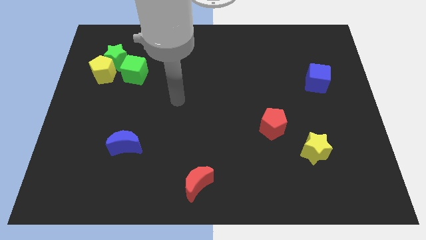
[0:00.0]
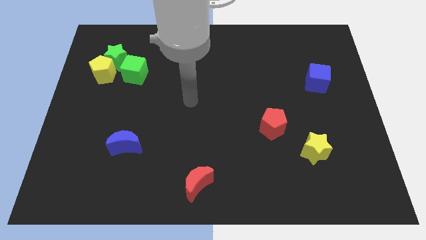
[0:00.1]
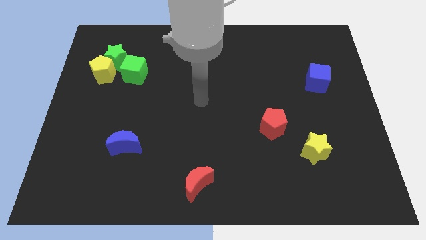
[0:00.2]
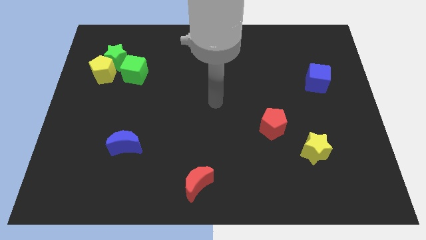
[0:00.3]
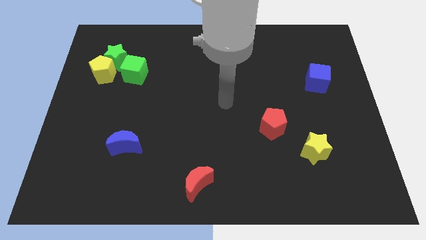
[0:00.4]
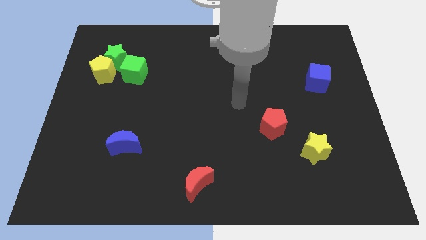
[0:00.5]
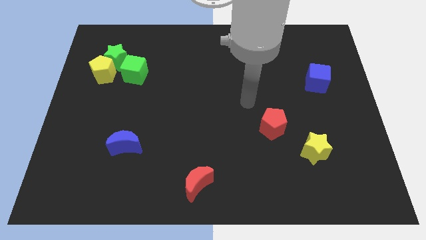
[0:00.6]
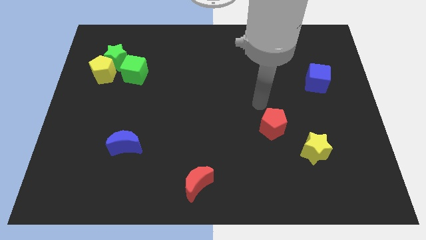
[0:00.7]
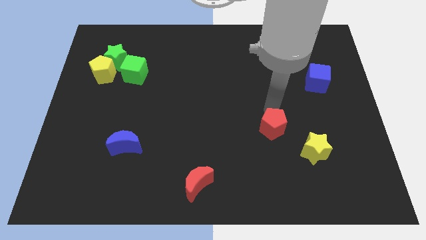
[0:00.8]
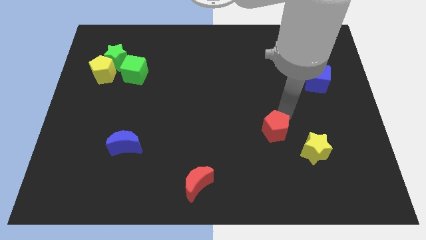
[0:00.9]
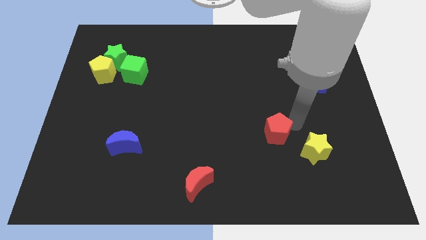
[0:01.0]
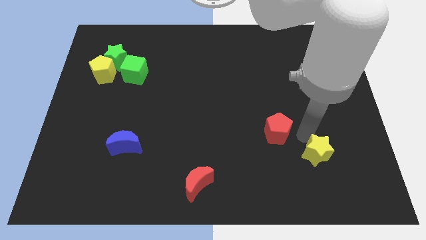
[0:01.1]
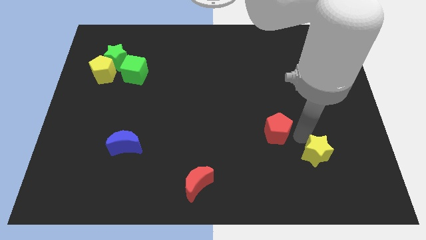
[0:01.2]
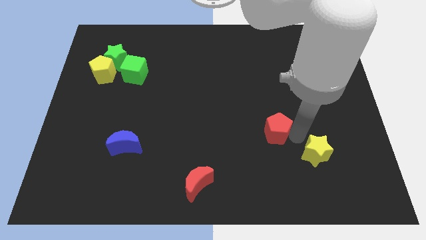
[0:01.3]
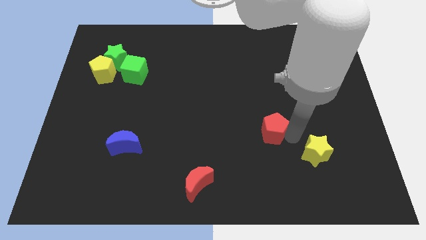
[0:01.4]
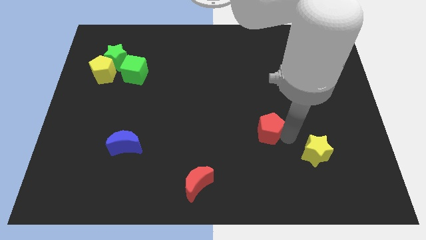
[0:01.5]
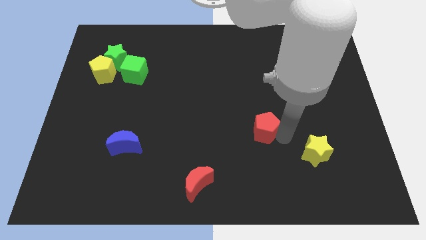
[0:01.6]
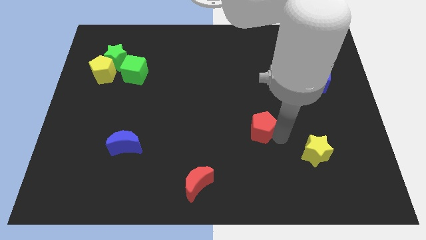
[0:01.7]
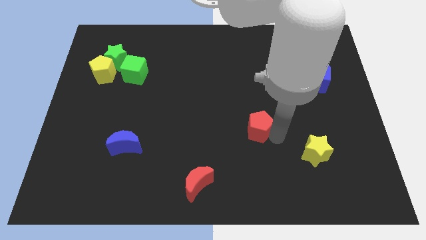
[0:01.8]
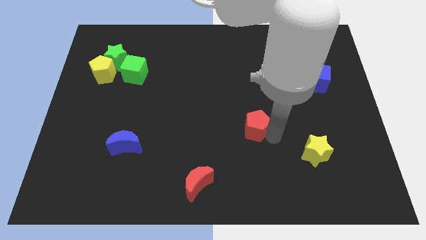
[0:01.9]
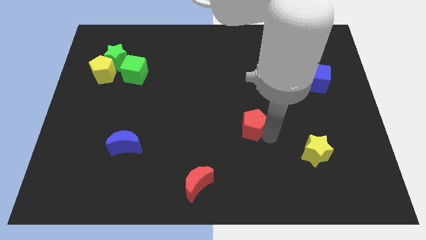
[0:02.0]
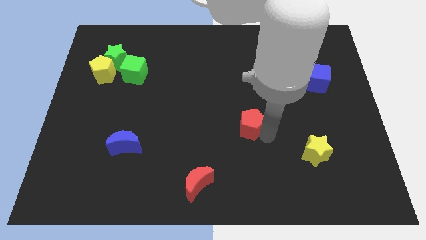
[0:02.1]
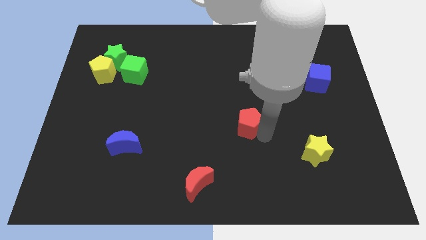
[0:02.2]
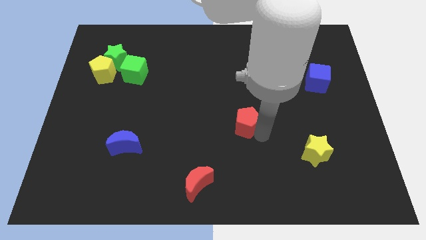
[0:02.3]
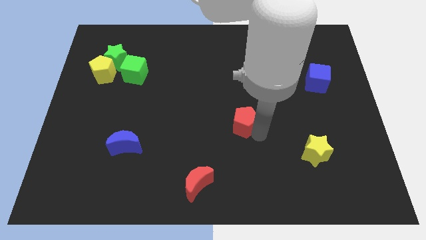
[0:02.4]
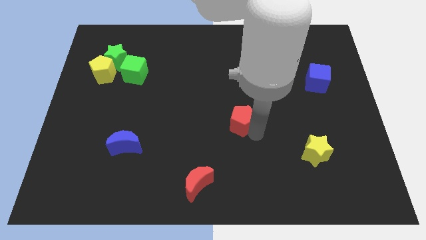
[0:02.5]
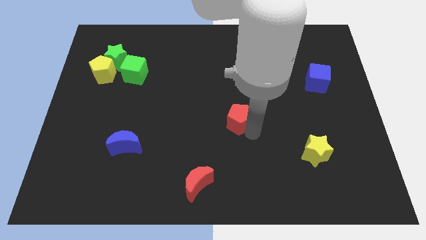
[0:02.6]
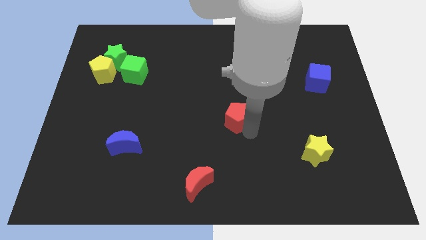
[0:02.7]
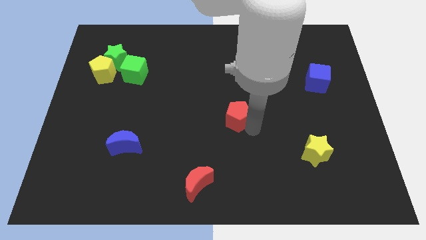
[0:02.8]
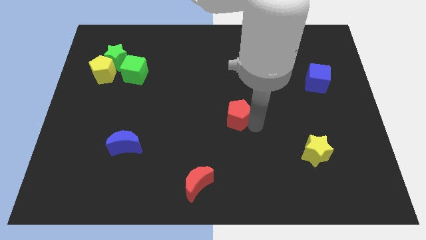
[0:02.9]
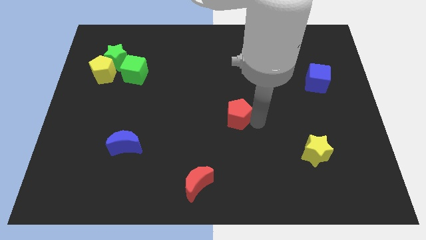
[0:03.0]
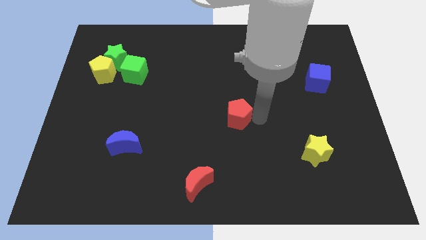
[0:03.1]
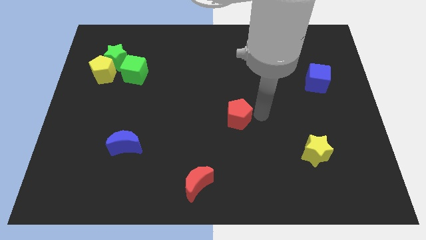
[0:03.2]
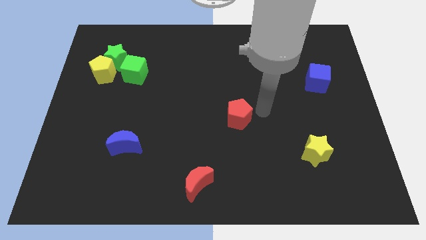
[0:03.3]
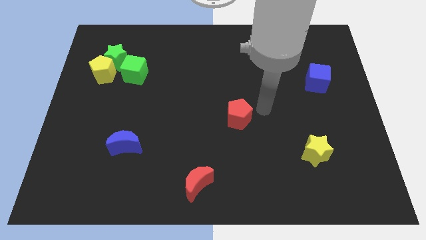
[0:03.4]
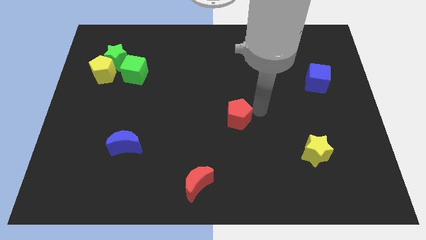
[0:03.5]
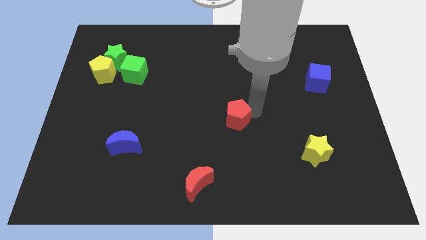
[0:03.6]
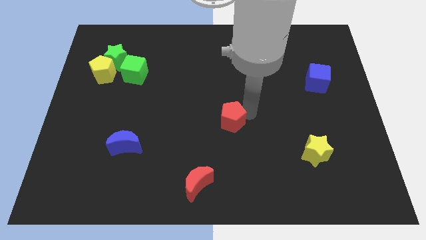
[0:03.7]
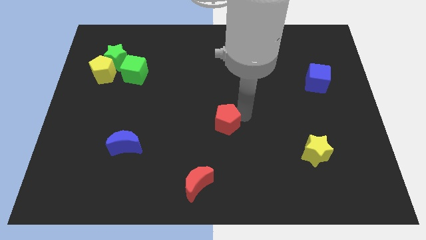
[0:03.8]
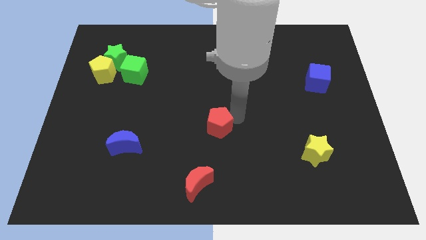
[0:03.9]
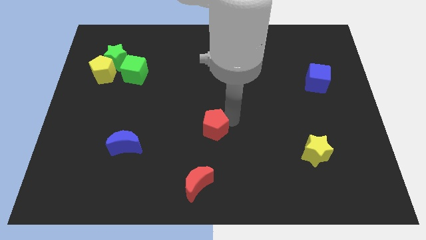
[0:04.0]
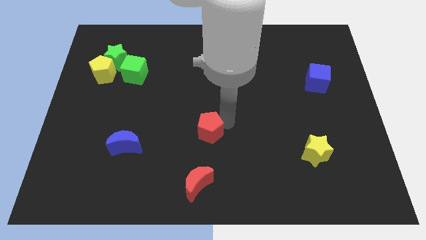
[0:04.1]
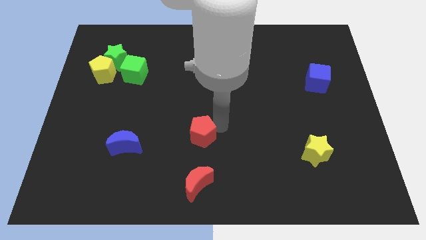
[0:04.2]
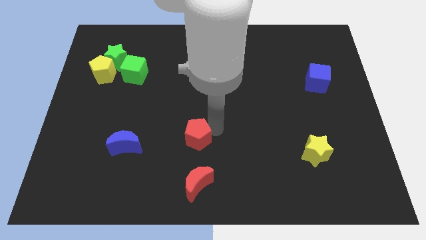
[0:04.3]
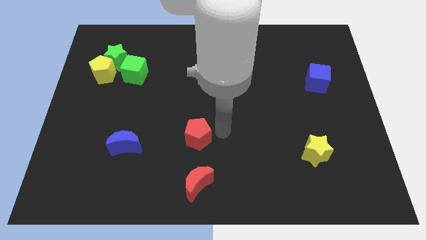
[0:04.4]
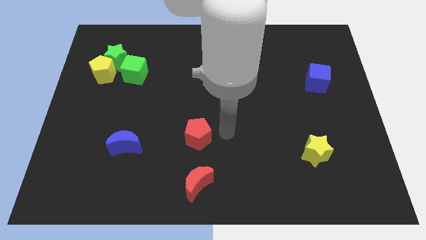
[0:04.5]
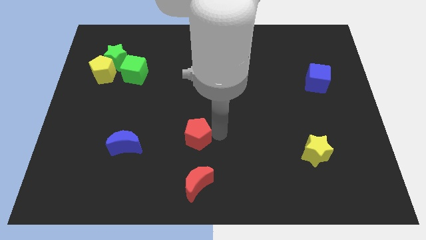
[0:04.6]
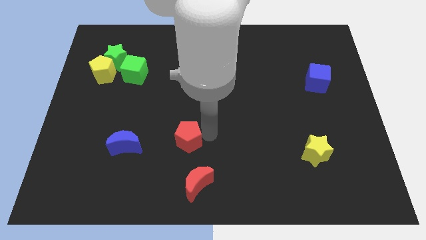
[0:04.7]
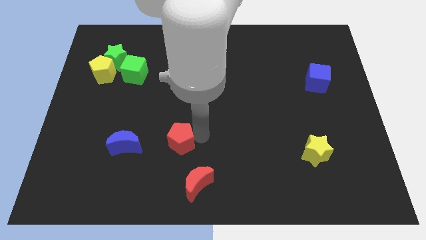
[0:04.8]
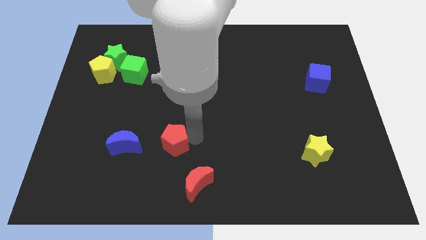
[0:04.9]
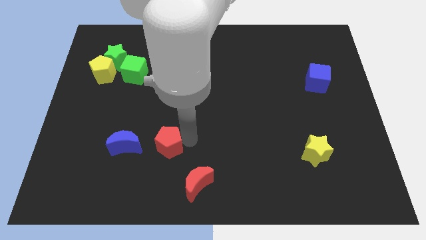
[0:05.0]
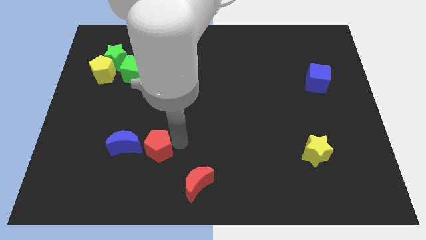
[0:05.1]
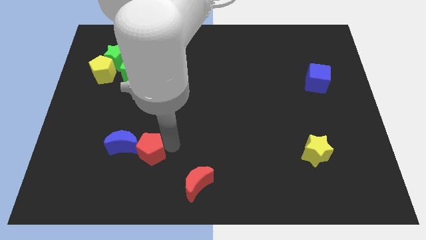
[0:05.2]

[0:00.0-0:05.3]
slide the red pentagon to the blue moon

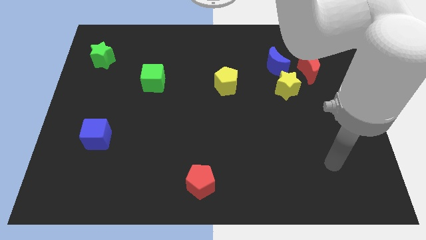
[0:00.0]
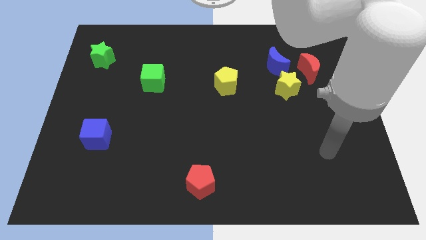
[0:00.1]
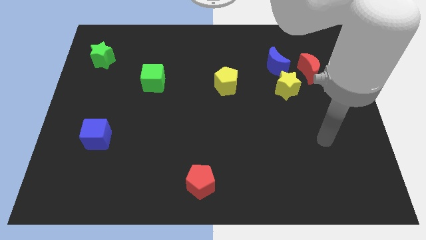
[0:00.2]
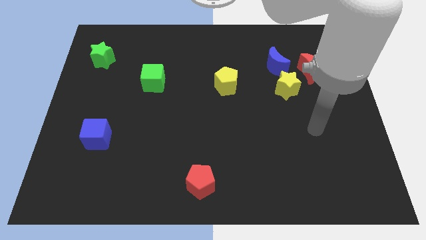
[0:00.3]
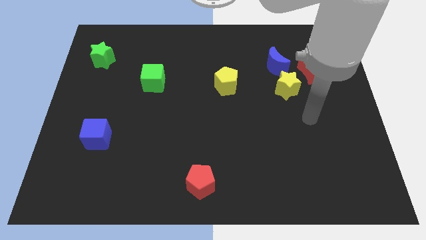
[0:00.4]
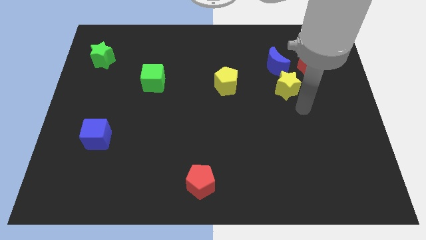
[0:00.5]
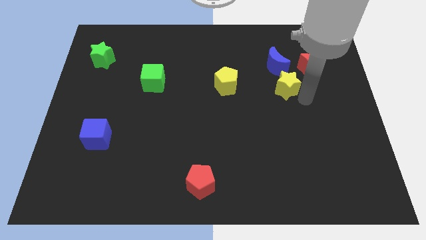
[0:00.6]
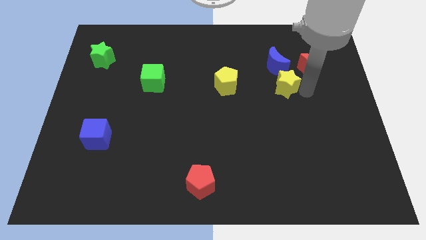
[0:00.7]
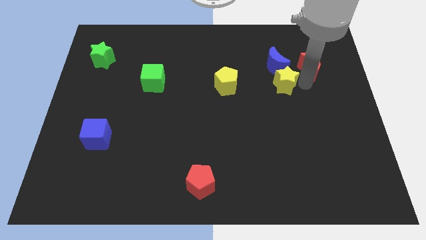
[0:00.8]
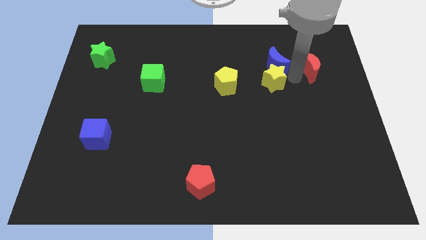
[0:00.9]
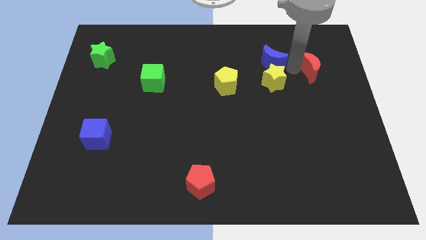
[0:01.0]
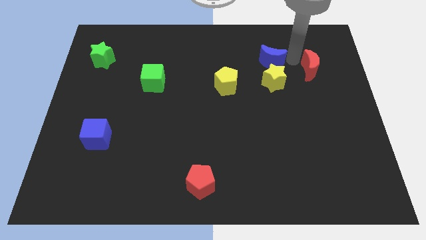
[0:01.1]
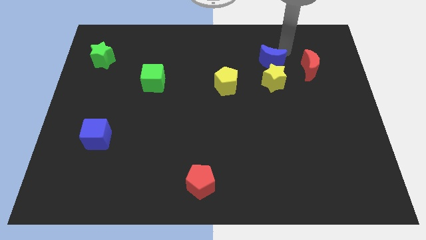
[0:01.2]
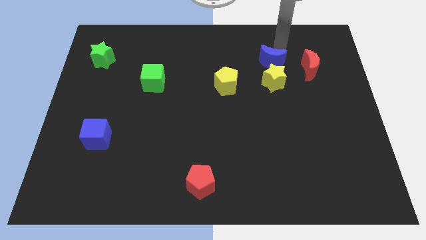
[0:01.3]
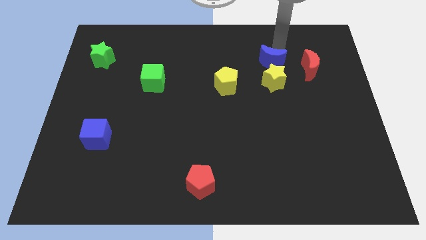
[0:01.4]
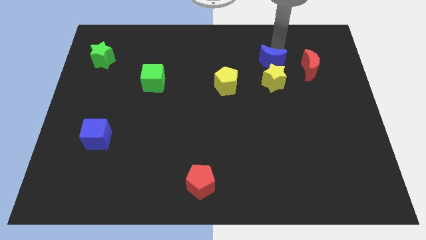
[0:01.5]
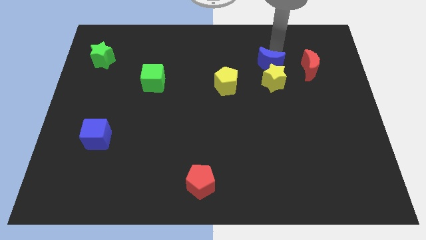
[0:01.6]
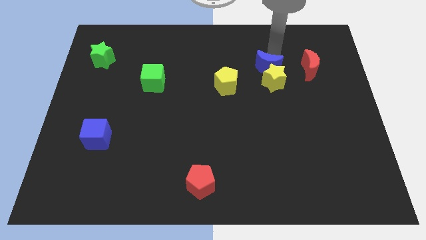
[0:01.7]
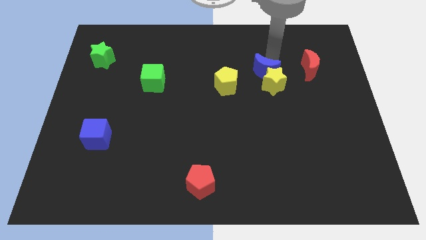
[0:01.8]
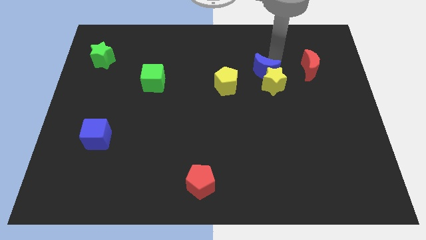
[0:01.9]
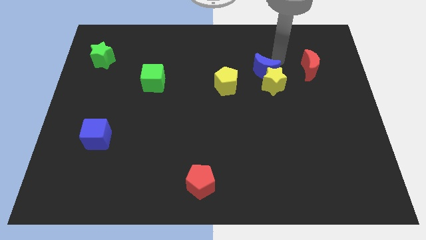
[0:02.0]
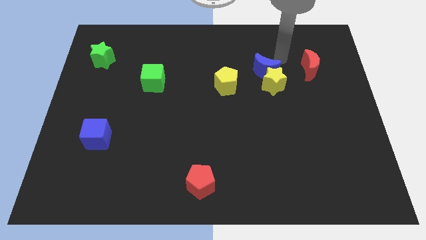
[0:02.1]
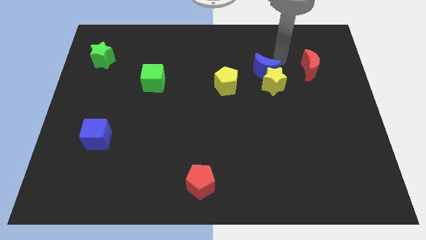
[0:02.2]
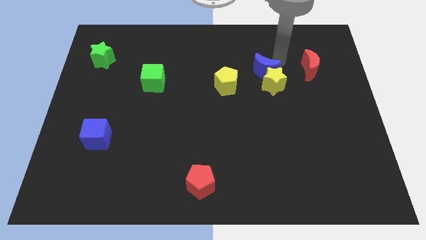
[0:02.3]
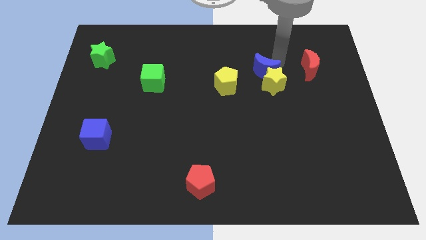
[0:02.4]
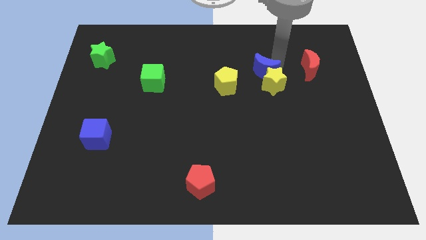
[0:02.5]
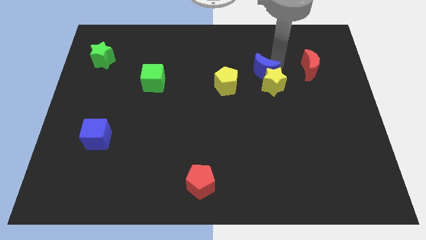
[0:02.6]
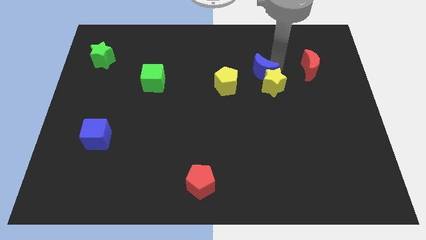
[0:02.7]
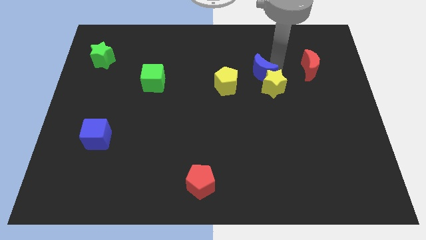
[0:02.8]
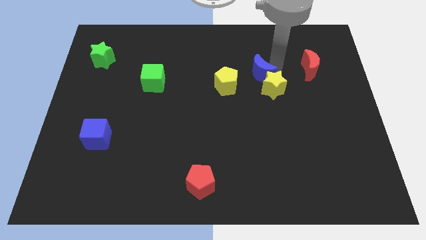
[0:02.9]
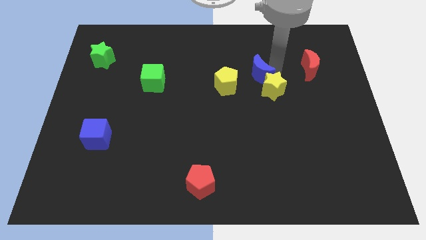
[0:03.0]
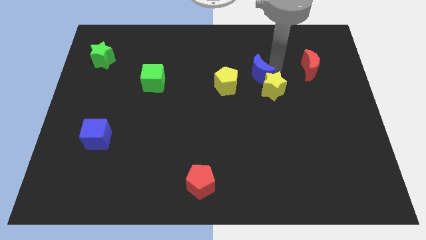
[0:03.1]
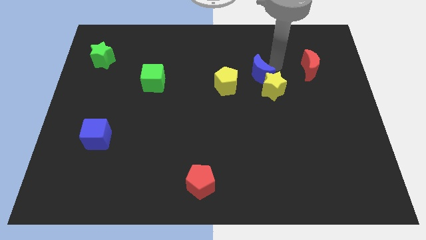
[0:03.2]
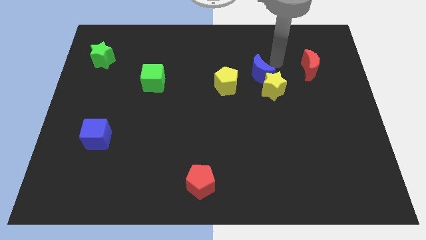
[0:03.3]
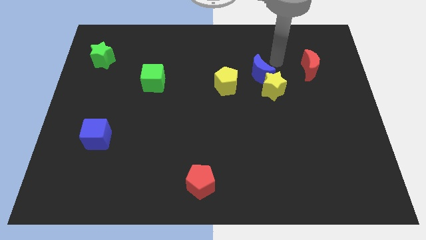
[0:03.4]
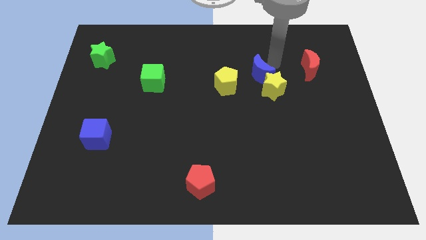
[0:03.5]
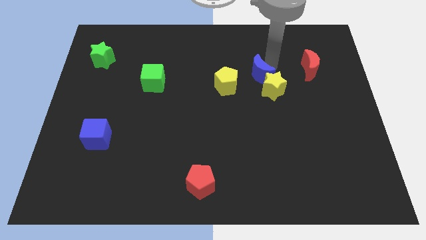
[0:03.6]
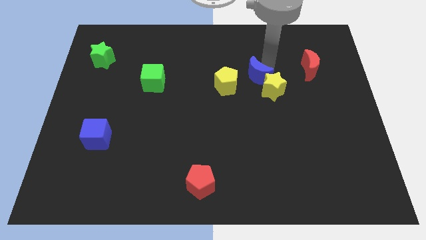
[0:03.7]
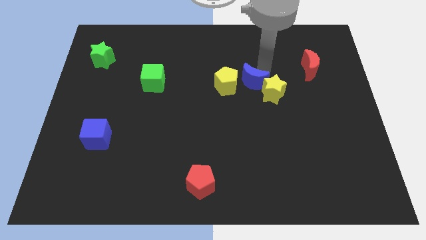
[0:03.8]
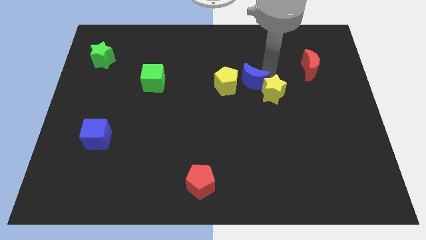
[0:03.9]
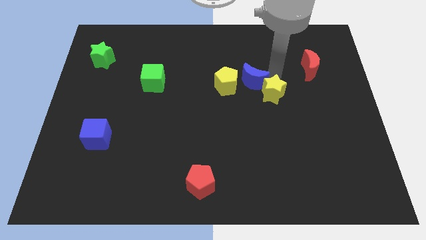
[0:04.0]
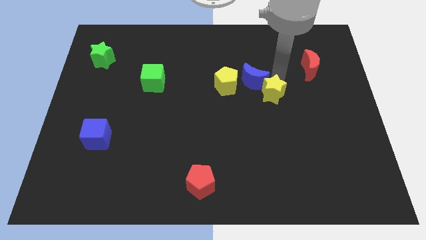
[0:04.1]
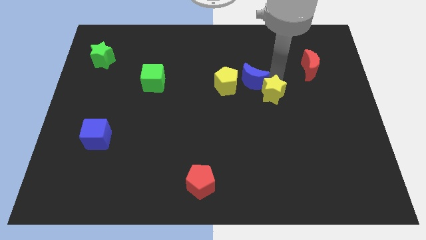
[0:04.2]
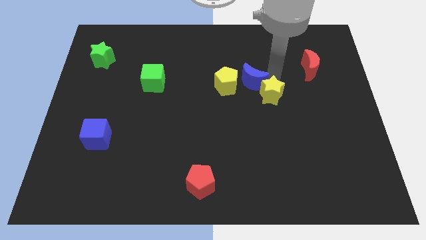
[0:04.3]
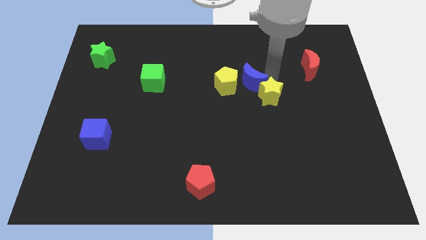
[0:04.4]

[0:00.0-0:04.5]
move the blue moon to the yellow pentagon
